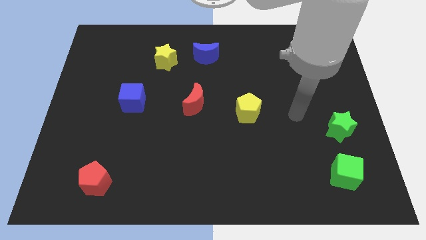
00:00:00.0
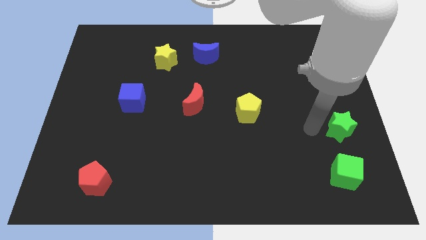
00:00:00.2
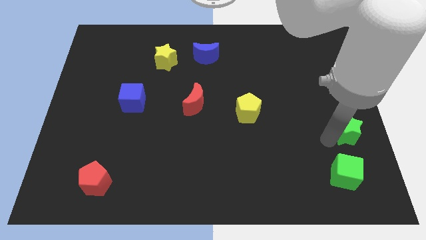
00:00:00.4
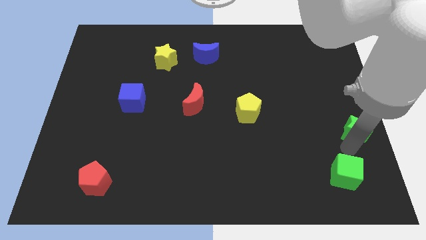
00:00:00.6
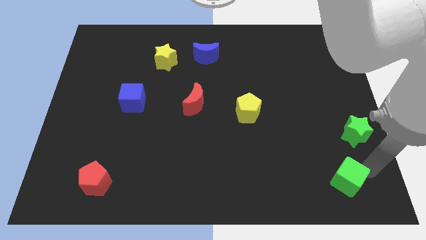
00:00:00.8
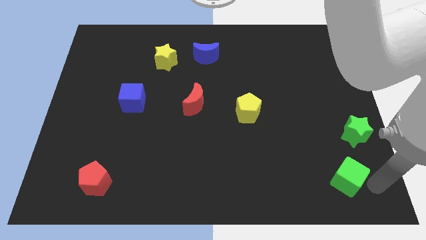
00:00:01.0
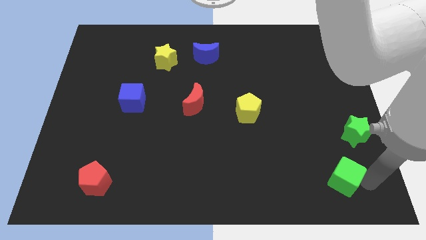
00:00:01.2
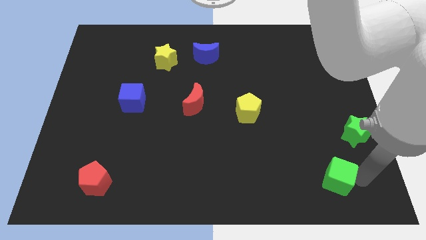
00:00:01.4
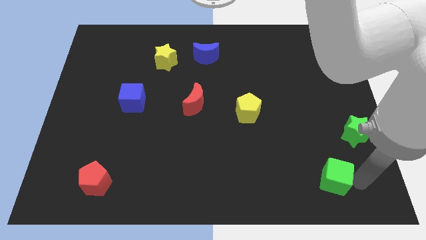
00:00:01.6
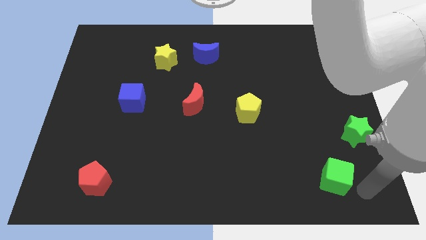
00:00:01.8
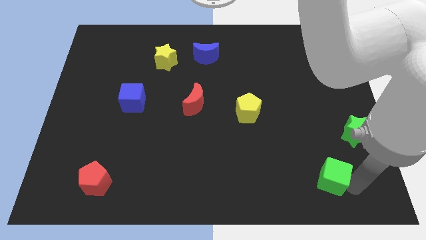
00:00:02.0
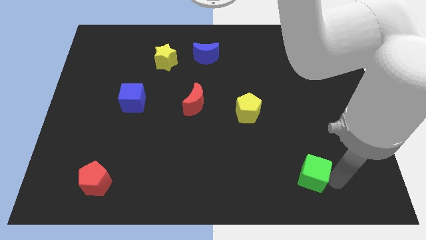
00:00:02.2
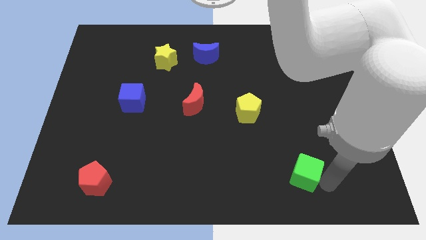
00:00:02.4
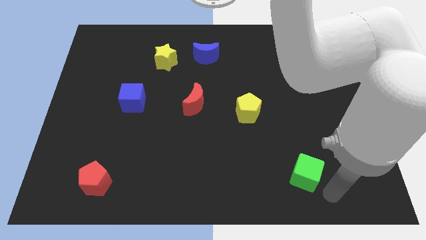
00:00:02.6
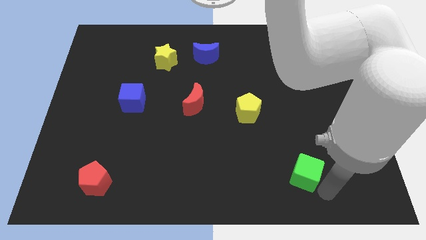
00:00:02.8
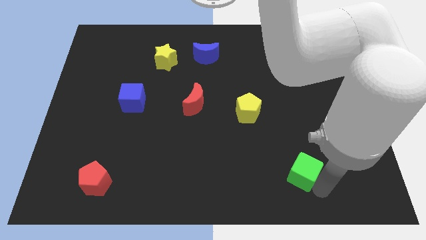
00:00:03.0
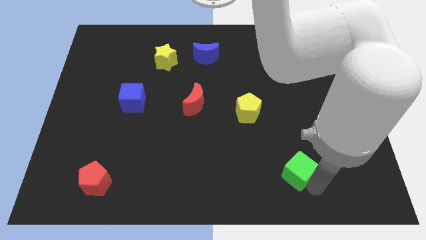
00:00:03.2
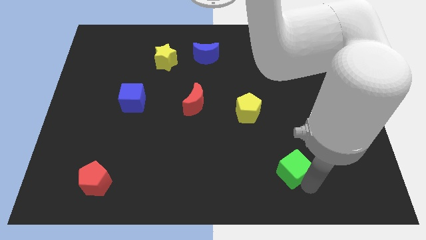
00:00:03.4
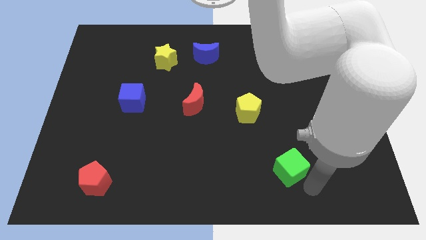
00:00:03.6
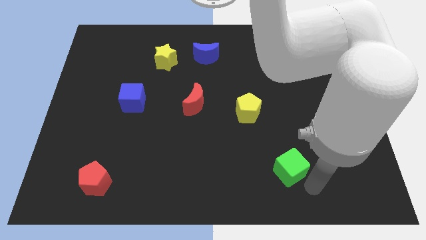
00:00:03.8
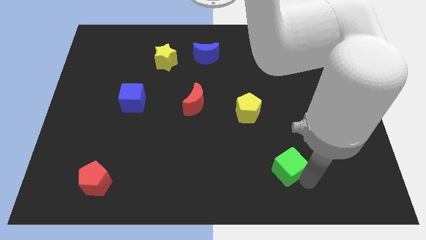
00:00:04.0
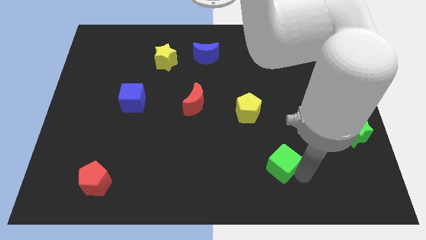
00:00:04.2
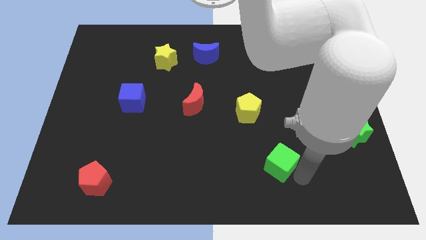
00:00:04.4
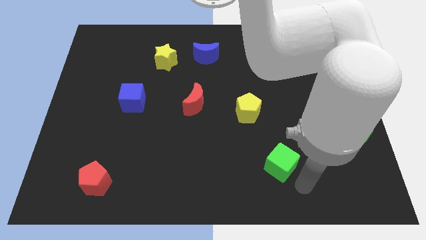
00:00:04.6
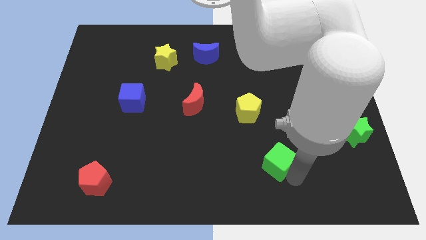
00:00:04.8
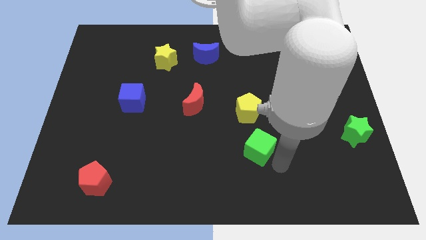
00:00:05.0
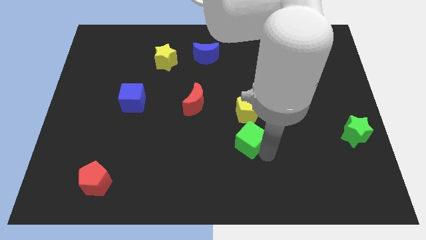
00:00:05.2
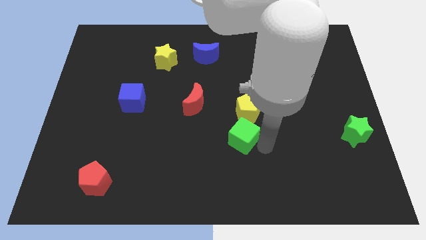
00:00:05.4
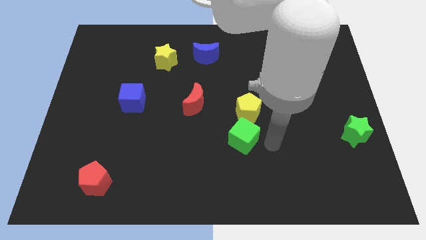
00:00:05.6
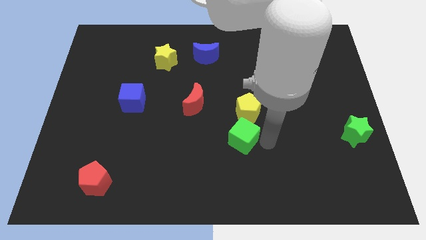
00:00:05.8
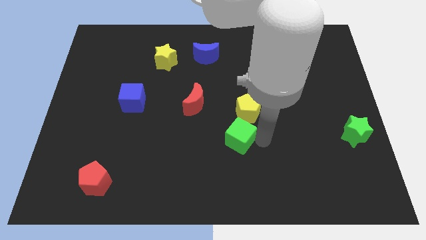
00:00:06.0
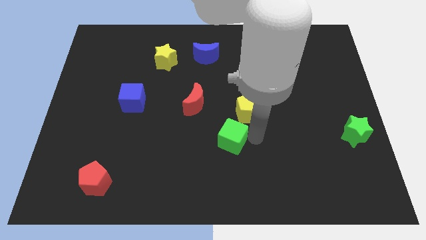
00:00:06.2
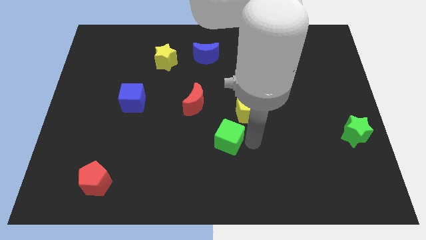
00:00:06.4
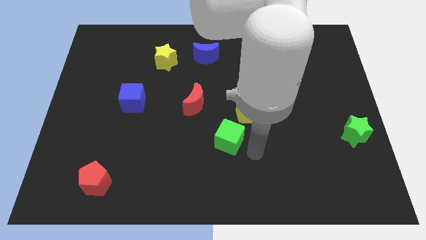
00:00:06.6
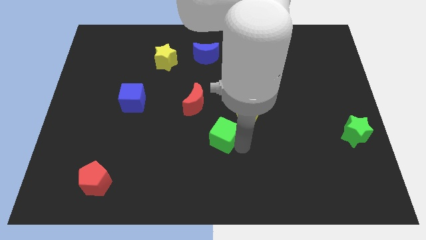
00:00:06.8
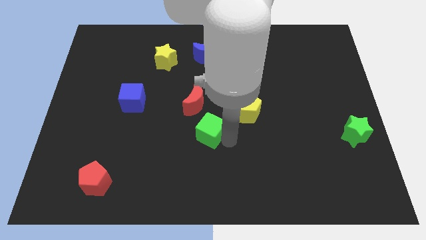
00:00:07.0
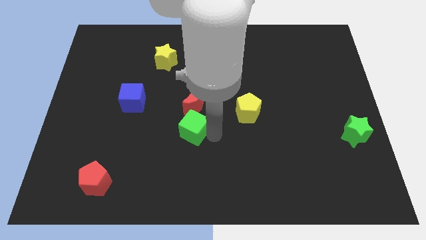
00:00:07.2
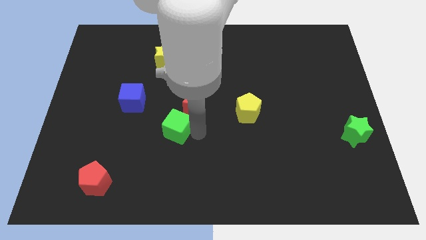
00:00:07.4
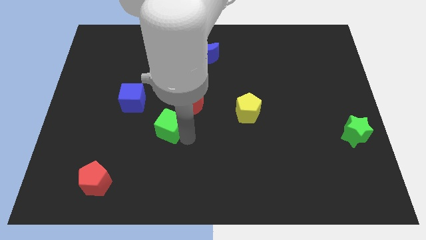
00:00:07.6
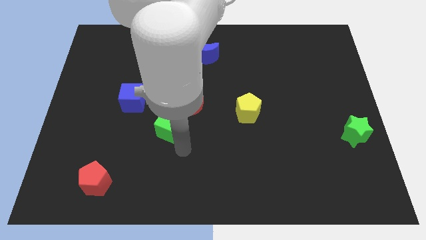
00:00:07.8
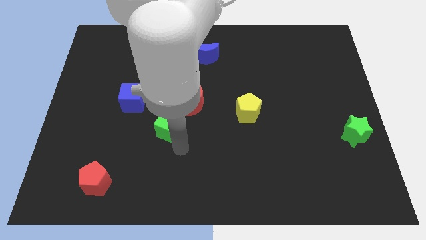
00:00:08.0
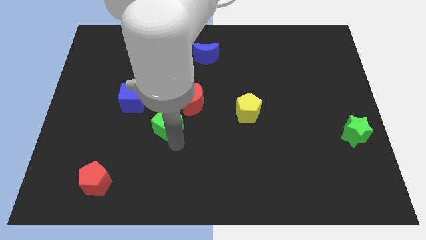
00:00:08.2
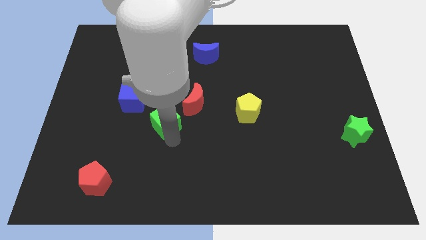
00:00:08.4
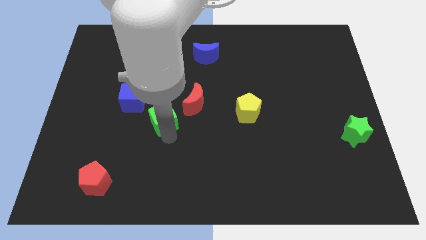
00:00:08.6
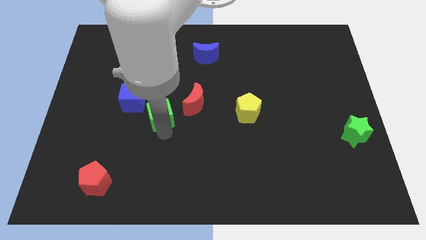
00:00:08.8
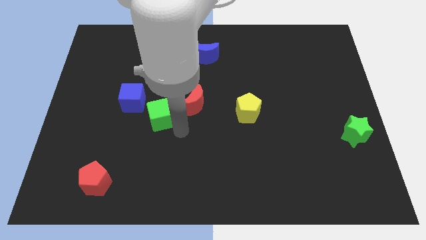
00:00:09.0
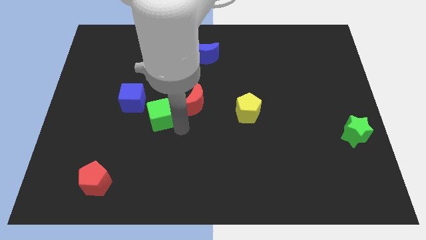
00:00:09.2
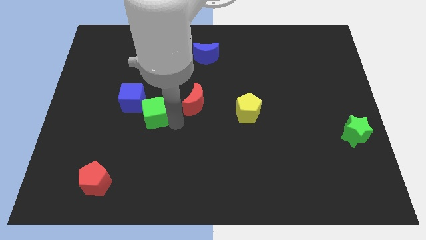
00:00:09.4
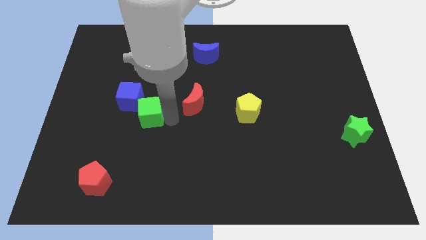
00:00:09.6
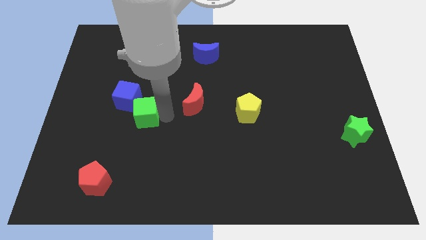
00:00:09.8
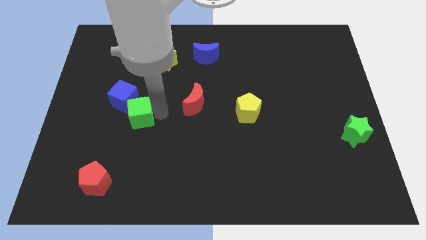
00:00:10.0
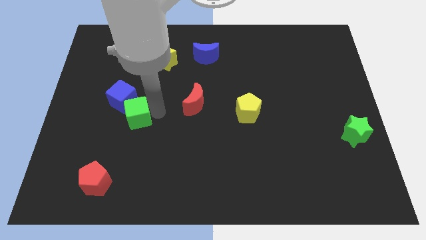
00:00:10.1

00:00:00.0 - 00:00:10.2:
put the green cube towards the blue cube

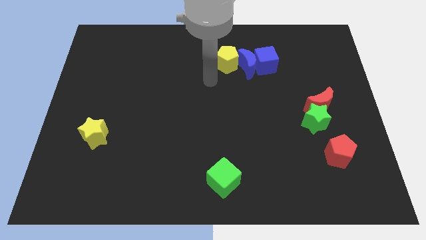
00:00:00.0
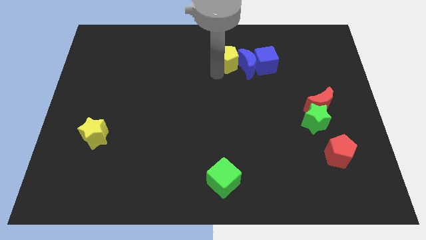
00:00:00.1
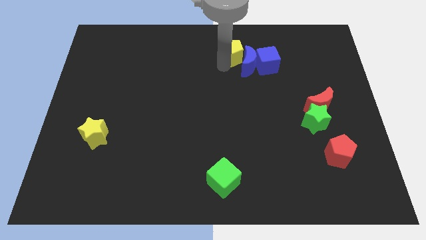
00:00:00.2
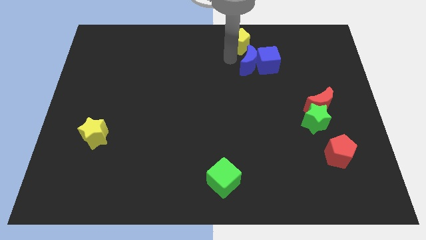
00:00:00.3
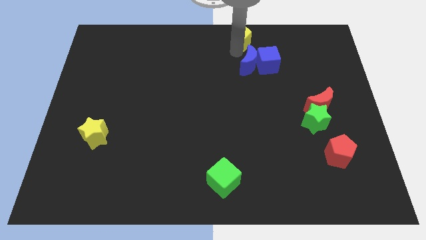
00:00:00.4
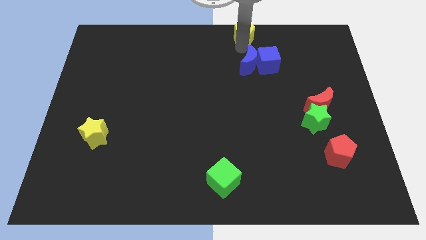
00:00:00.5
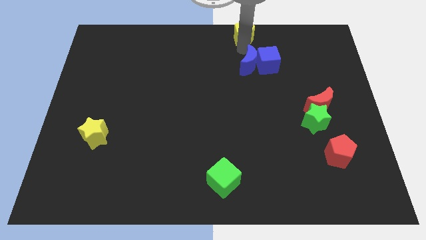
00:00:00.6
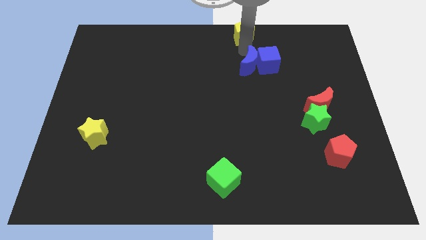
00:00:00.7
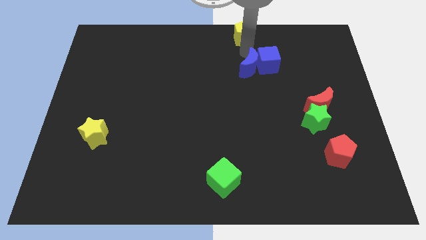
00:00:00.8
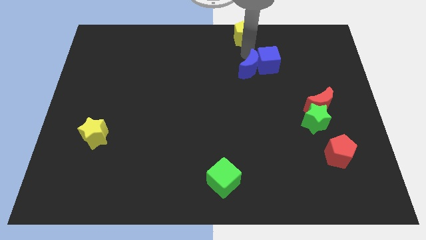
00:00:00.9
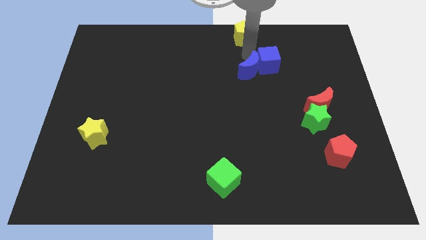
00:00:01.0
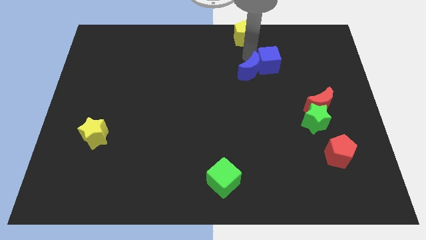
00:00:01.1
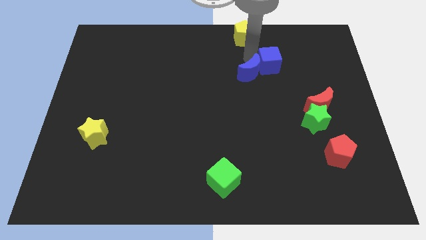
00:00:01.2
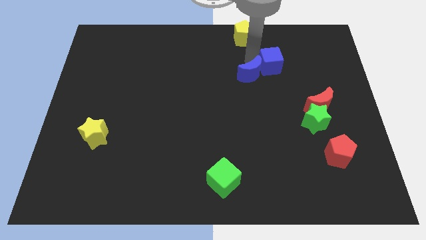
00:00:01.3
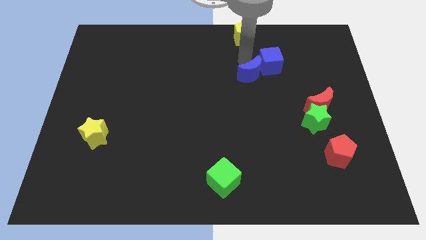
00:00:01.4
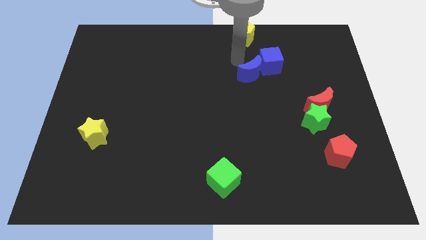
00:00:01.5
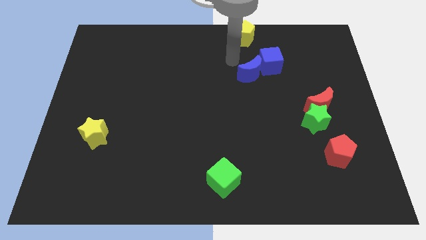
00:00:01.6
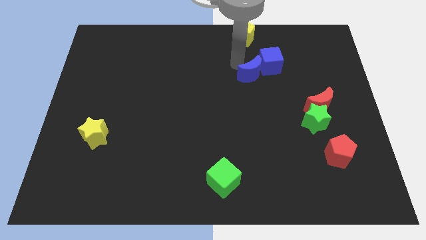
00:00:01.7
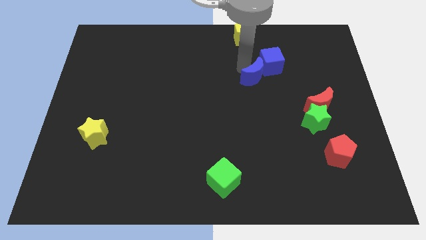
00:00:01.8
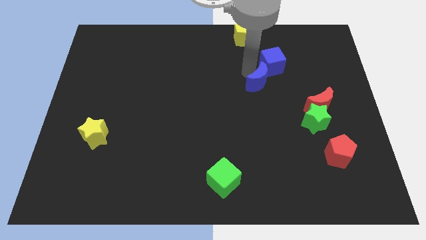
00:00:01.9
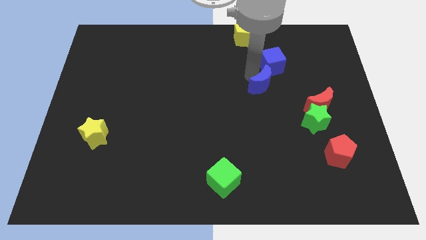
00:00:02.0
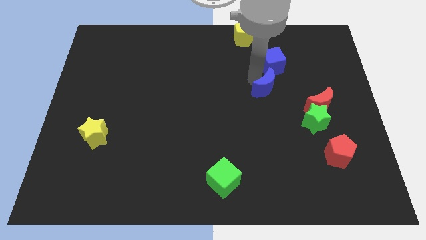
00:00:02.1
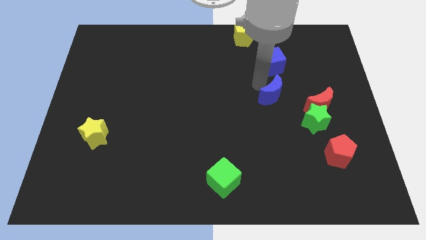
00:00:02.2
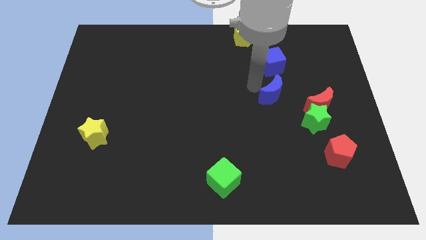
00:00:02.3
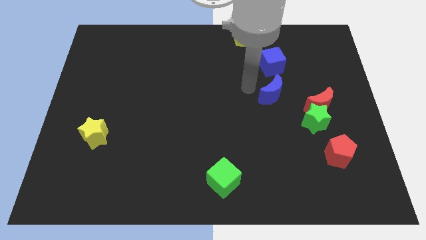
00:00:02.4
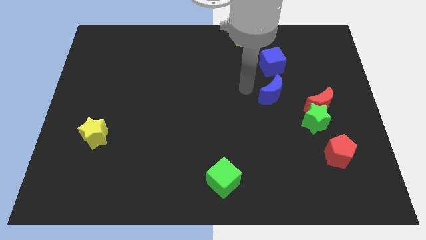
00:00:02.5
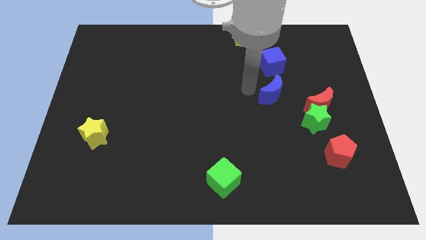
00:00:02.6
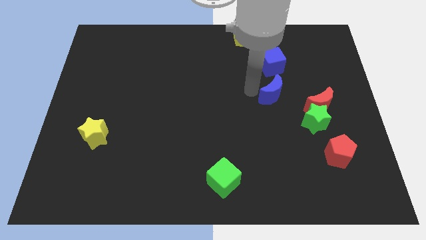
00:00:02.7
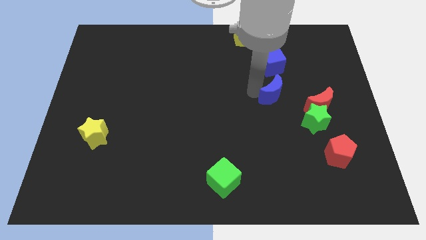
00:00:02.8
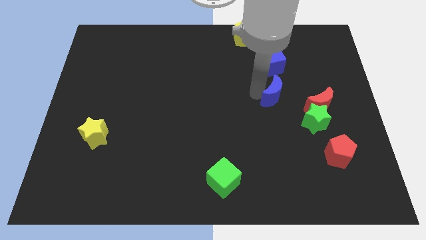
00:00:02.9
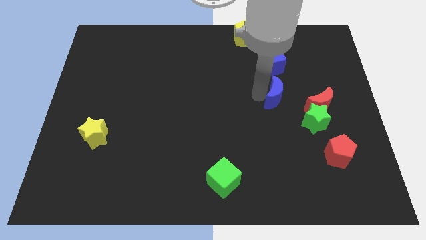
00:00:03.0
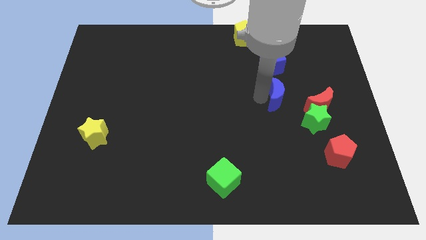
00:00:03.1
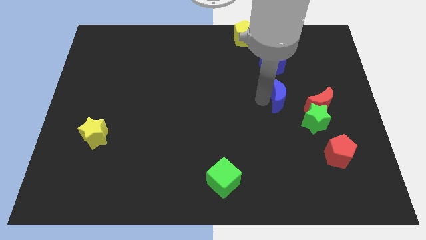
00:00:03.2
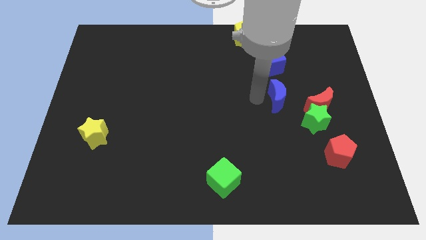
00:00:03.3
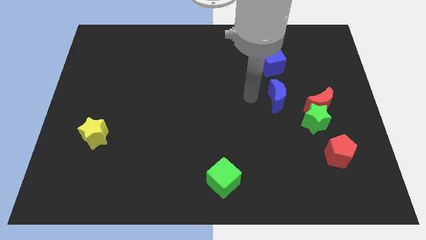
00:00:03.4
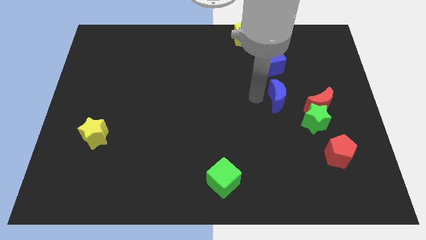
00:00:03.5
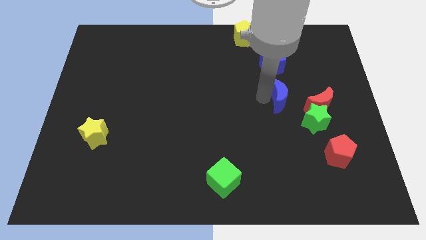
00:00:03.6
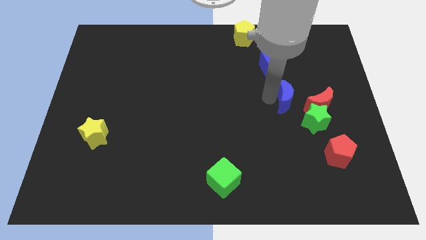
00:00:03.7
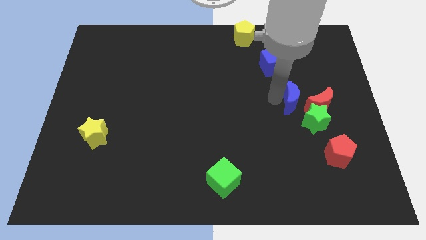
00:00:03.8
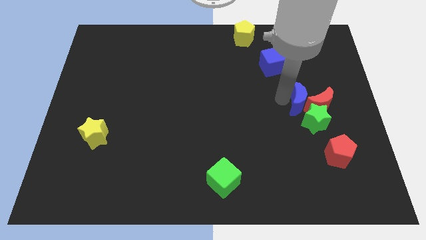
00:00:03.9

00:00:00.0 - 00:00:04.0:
put the blue moon towards the red moon
